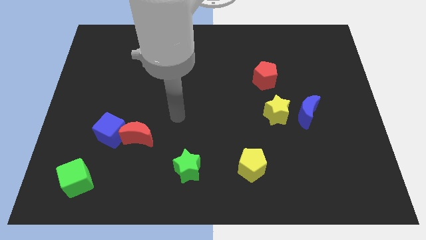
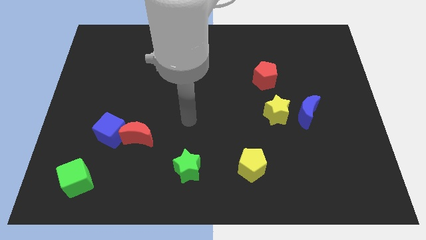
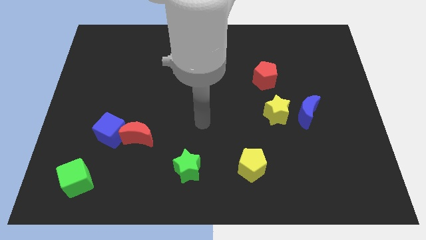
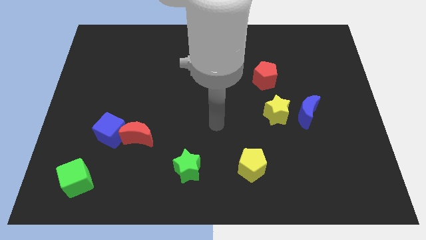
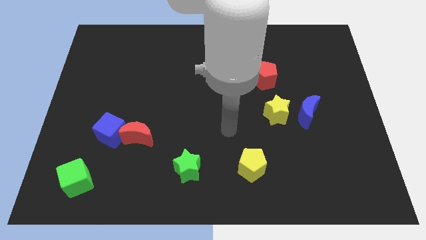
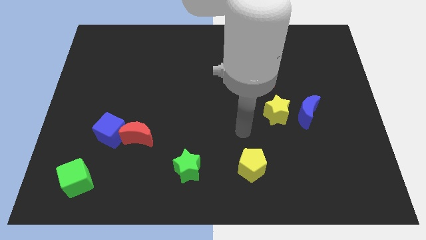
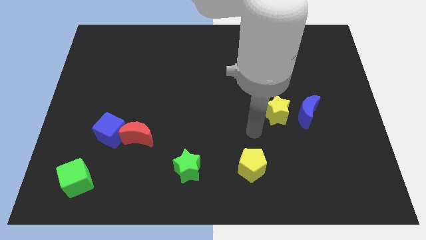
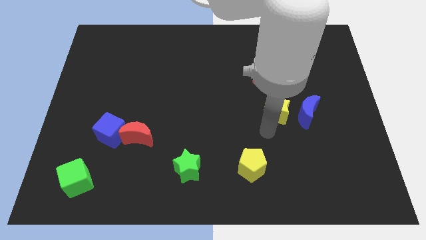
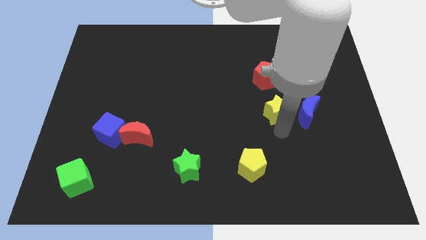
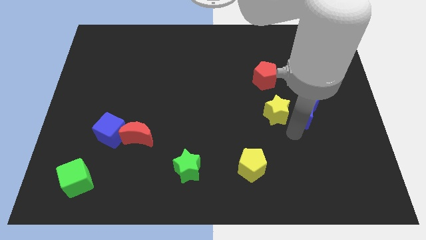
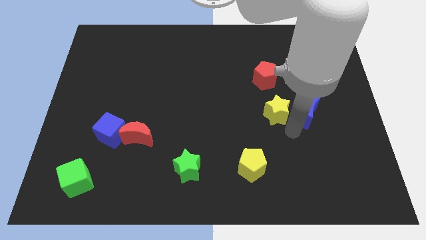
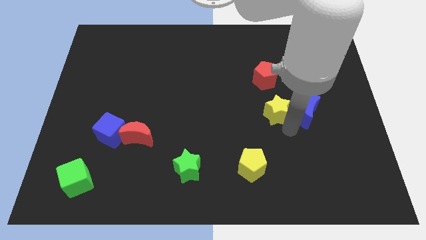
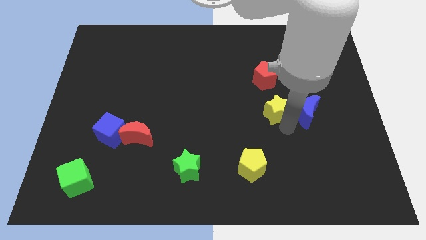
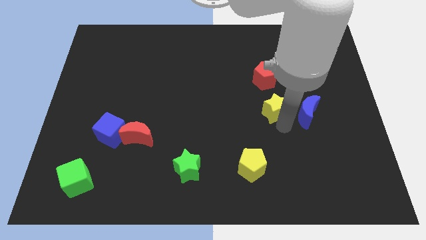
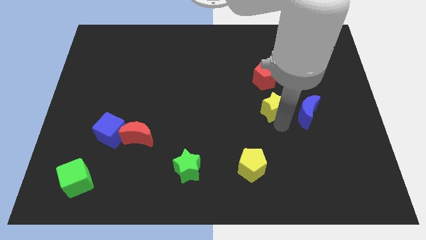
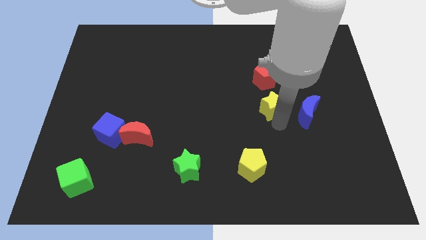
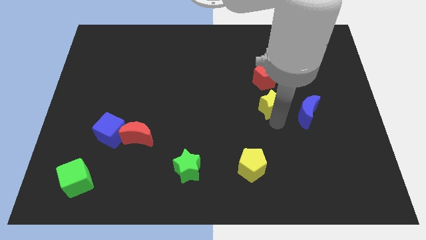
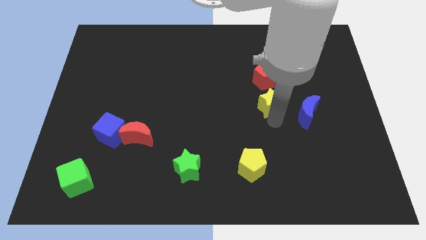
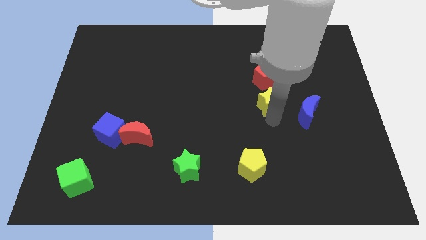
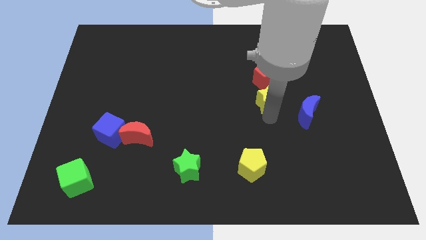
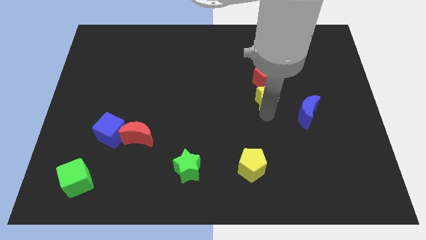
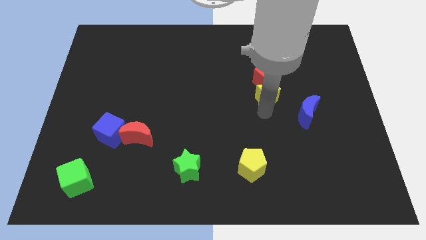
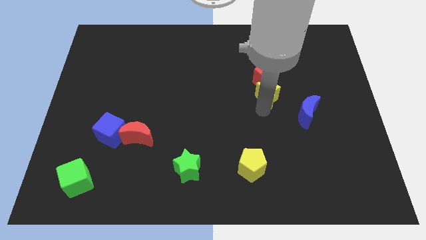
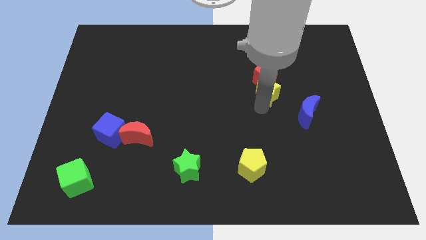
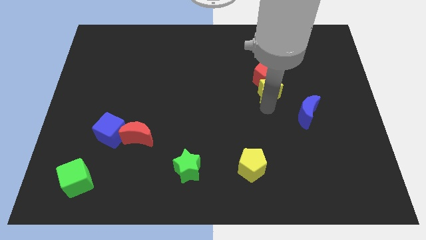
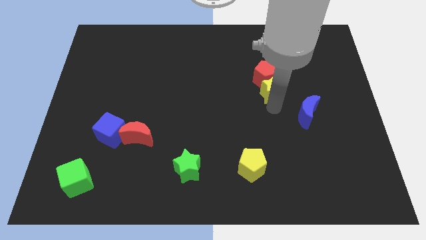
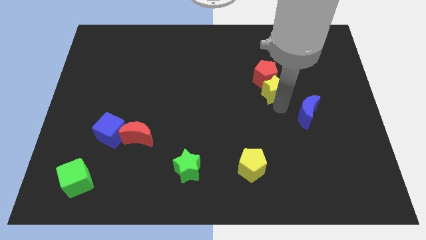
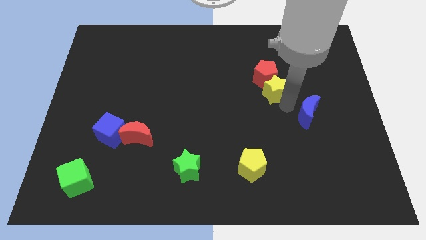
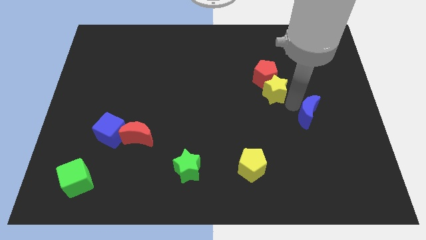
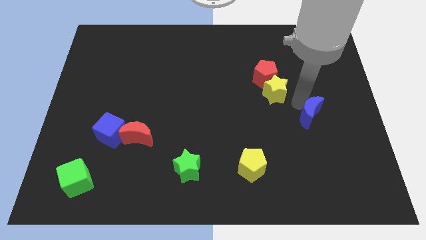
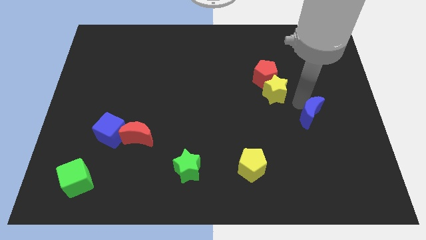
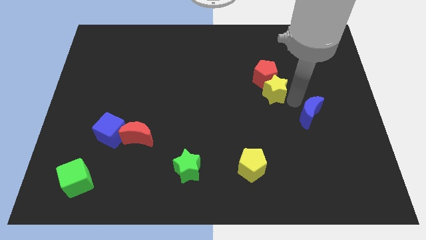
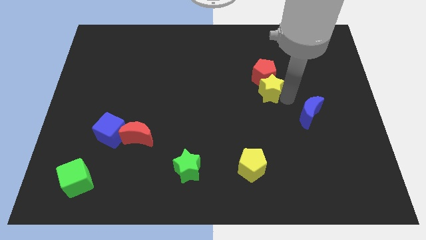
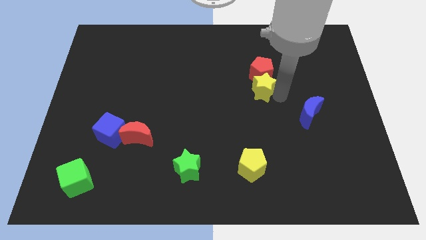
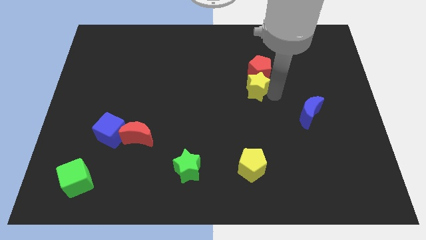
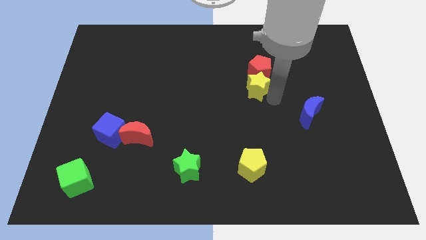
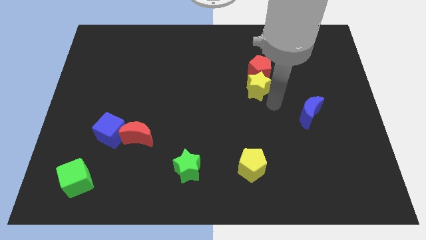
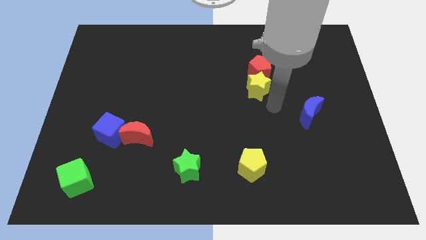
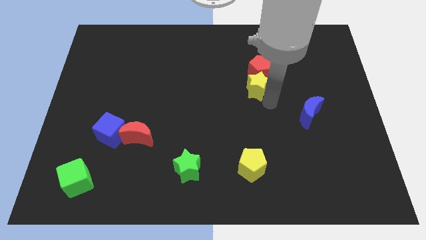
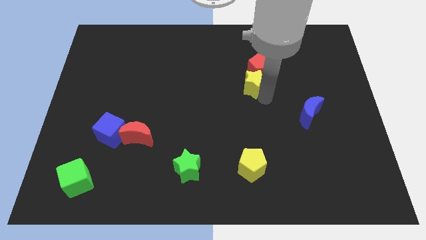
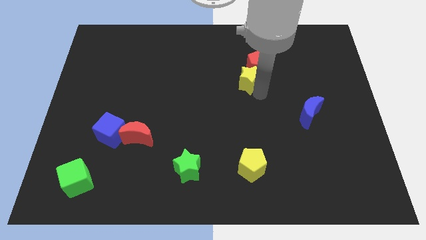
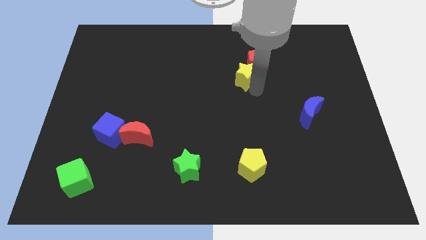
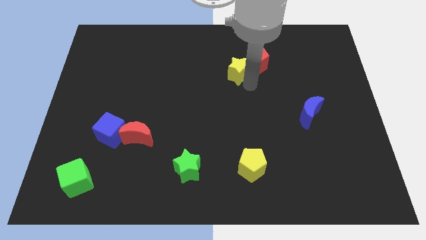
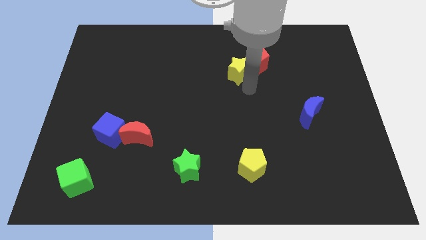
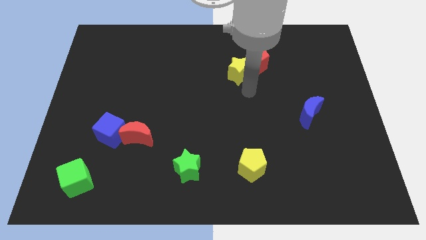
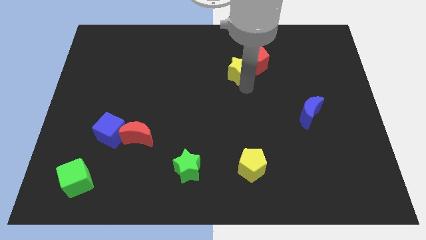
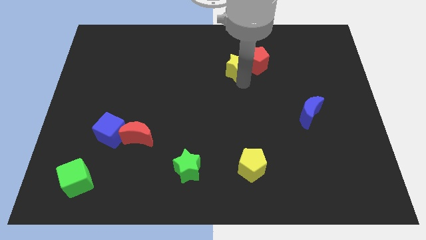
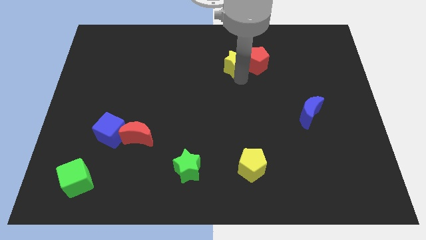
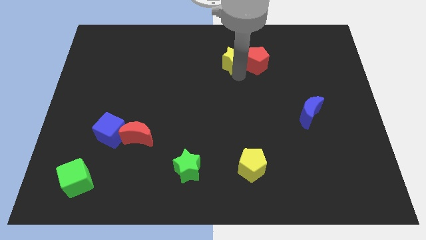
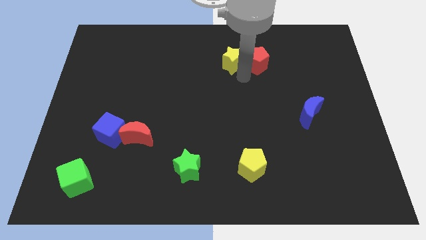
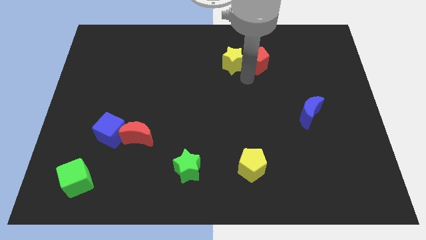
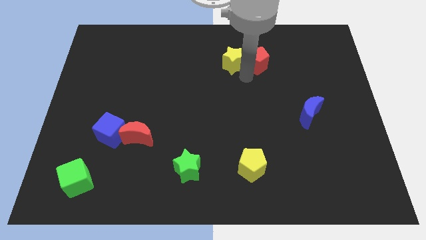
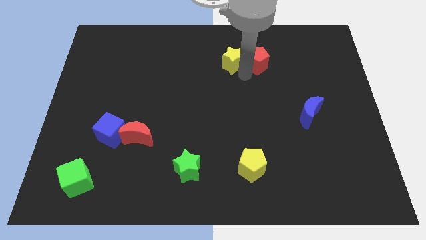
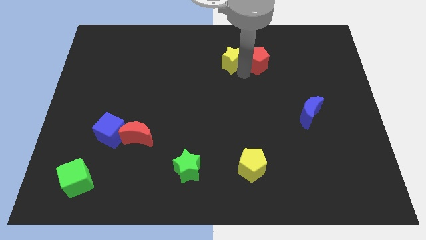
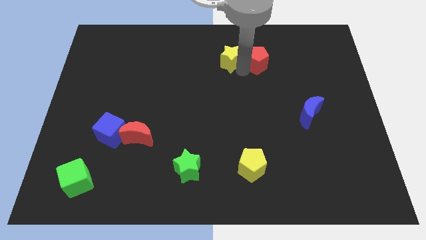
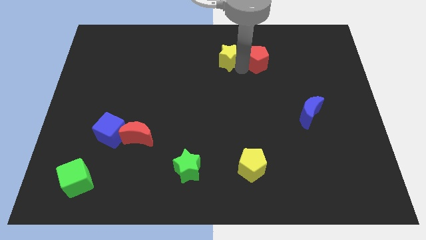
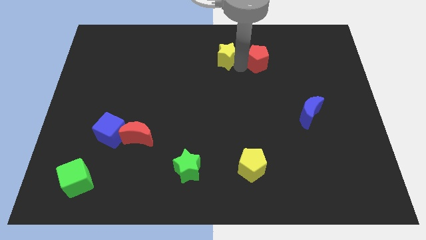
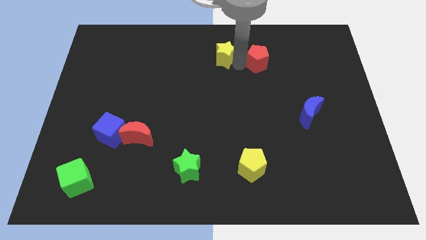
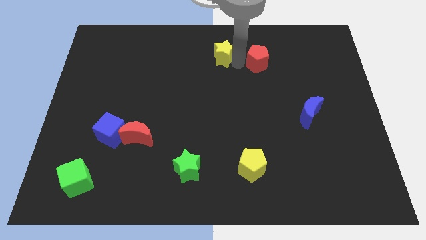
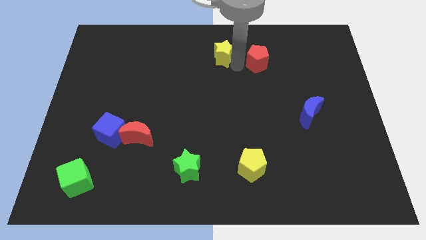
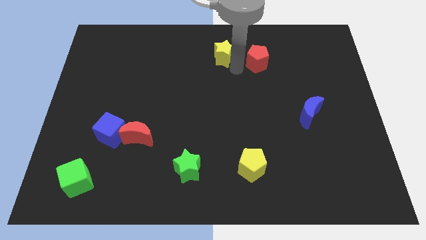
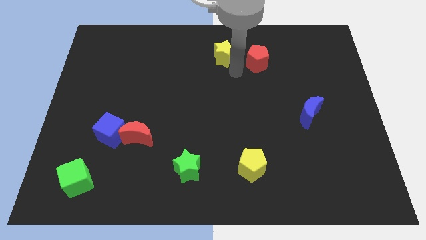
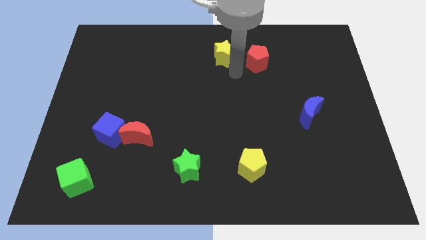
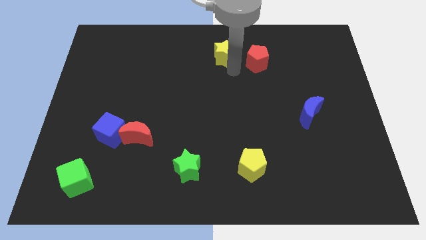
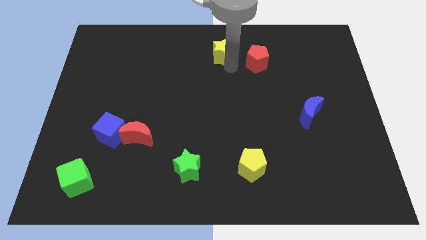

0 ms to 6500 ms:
push the yellow star to the top
